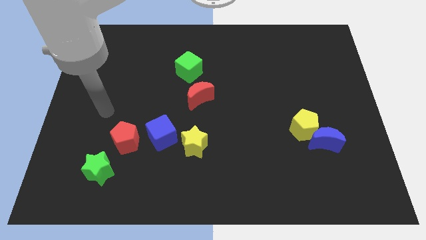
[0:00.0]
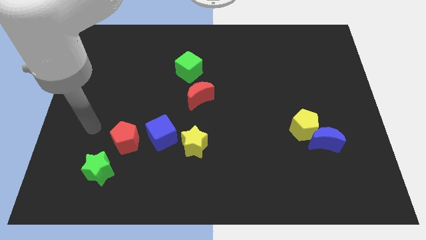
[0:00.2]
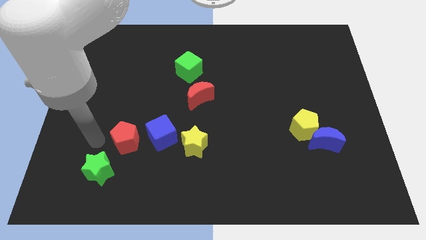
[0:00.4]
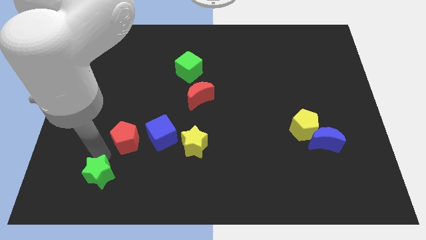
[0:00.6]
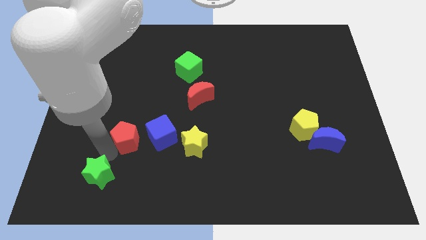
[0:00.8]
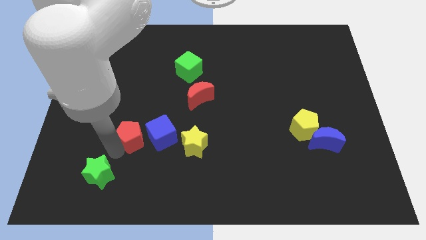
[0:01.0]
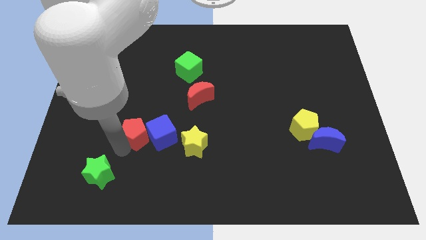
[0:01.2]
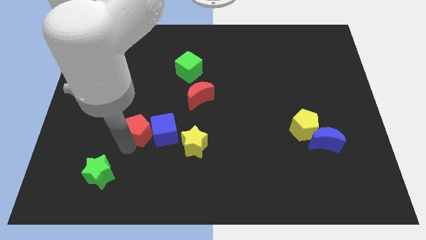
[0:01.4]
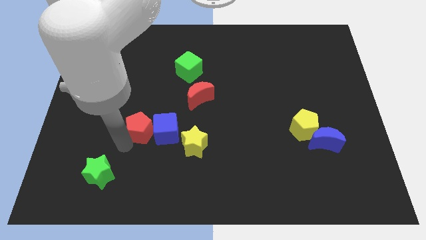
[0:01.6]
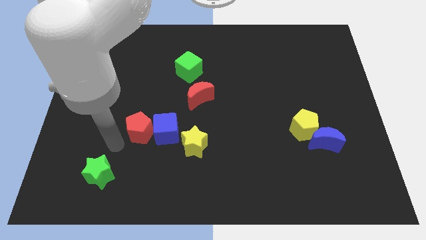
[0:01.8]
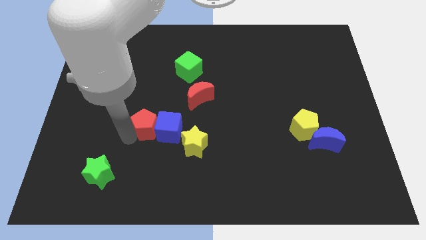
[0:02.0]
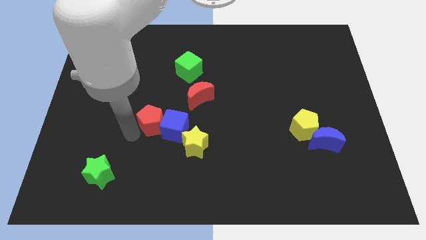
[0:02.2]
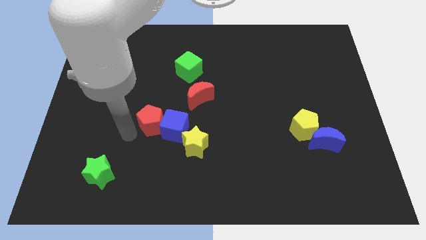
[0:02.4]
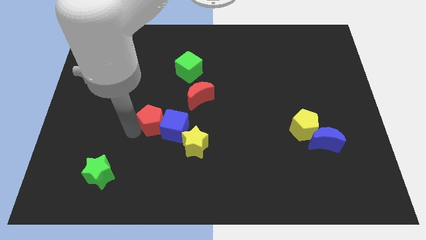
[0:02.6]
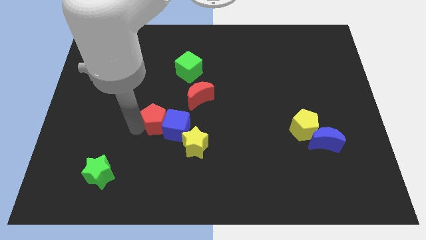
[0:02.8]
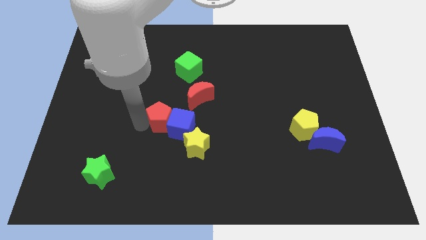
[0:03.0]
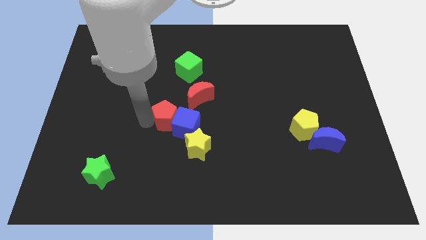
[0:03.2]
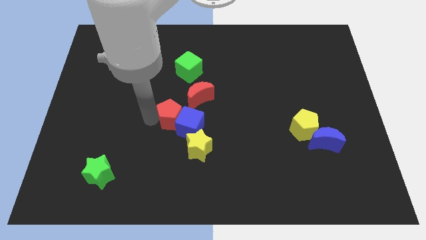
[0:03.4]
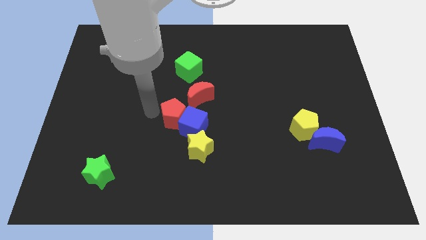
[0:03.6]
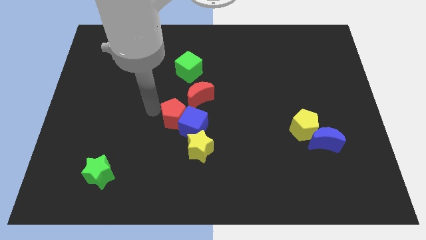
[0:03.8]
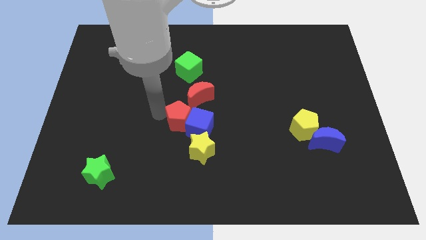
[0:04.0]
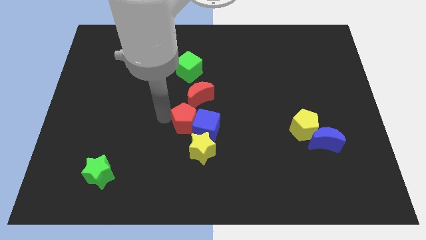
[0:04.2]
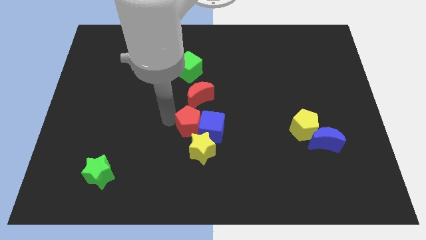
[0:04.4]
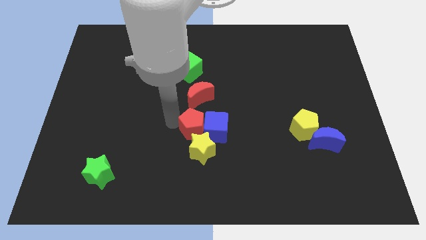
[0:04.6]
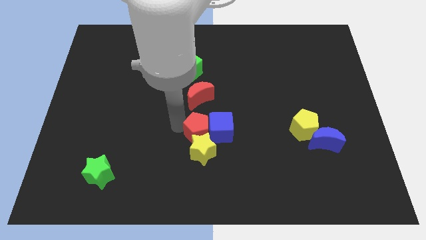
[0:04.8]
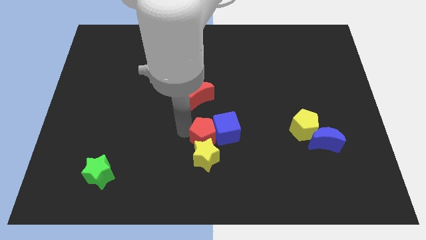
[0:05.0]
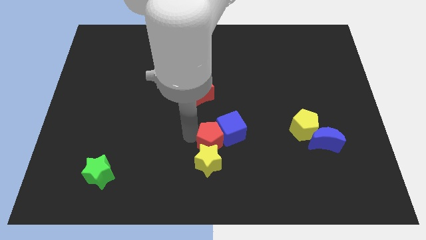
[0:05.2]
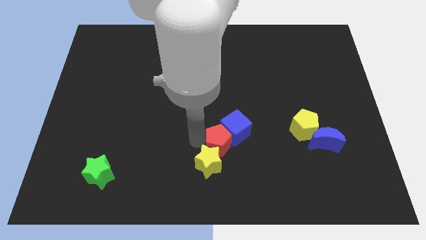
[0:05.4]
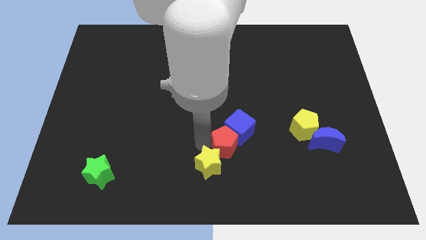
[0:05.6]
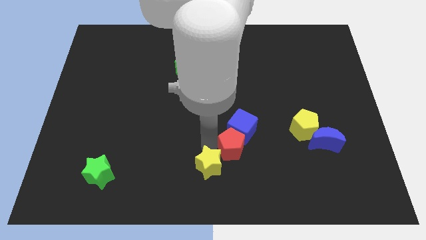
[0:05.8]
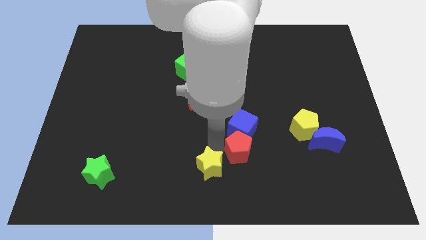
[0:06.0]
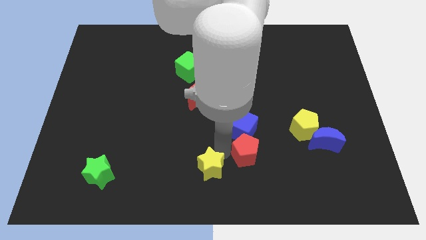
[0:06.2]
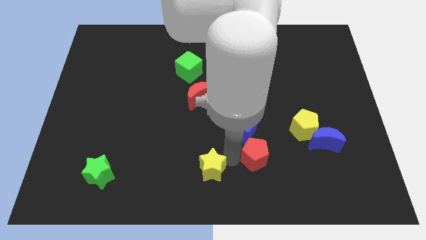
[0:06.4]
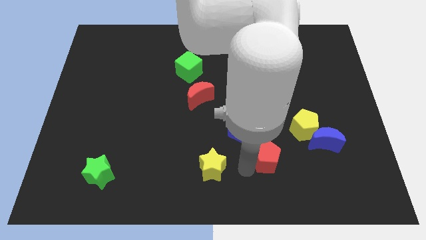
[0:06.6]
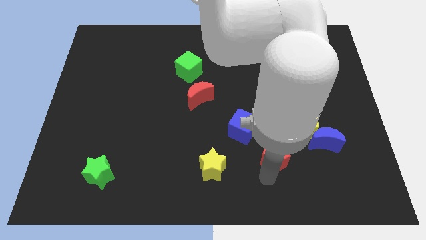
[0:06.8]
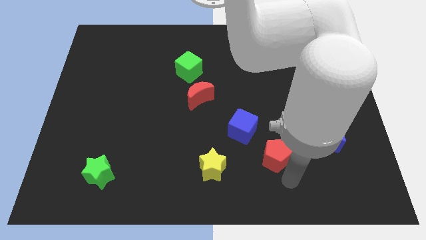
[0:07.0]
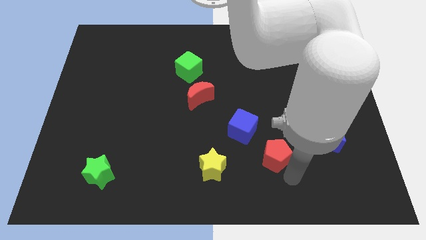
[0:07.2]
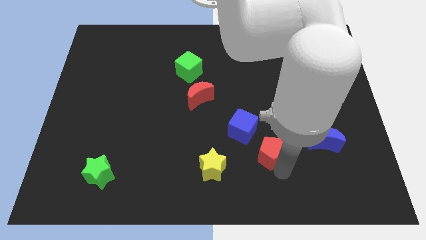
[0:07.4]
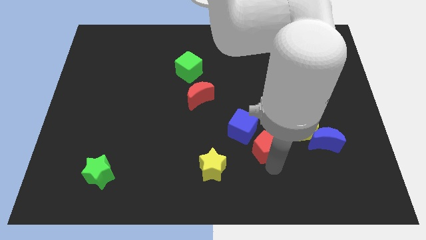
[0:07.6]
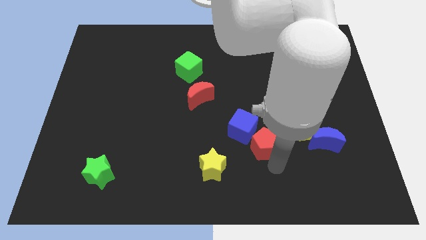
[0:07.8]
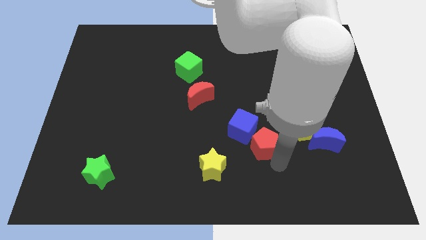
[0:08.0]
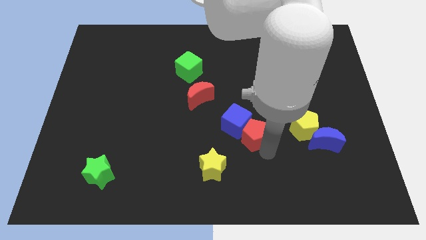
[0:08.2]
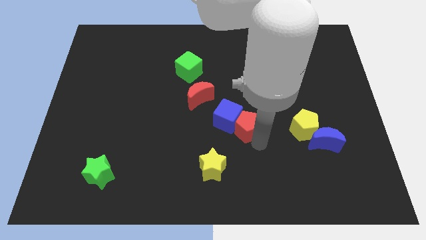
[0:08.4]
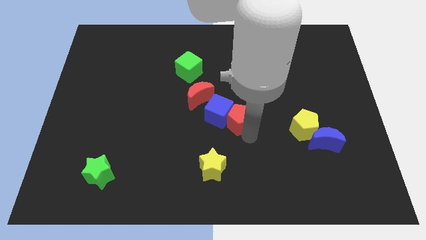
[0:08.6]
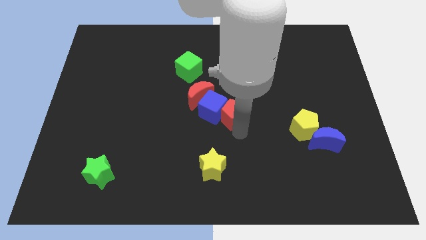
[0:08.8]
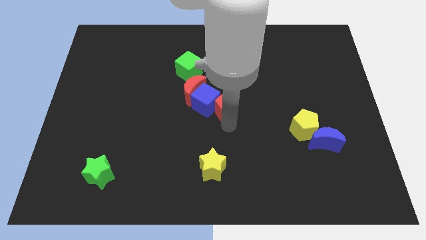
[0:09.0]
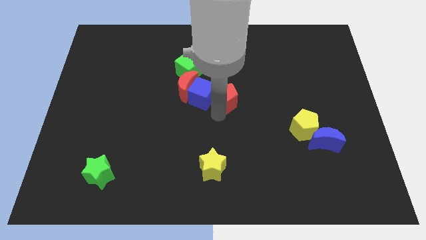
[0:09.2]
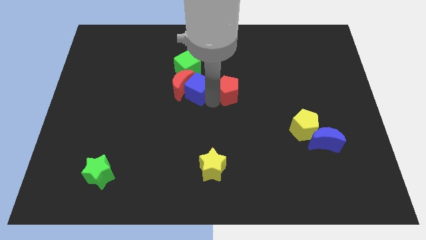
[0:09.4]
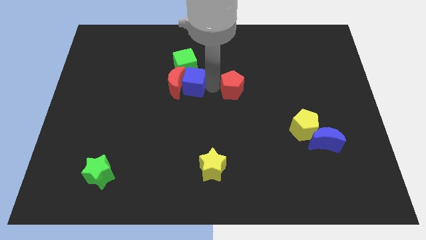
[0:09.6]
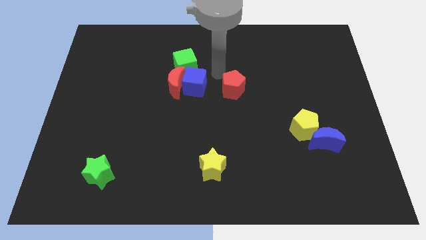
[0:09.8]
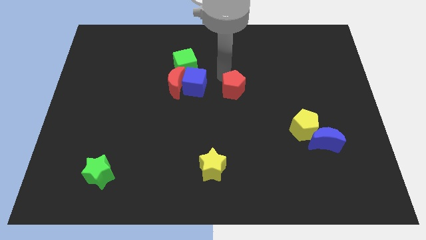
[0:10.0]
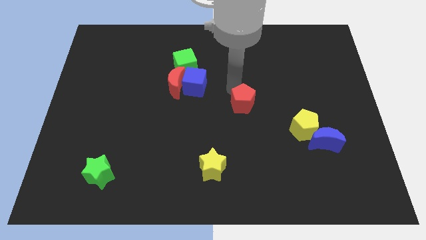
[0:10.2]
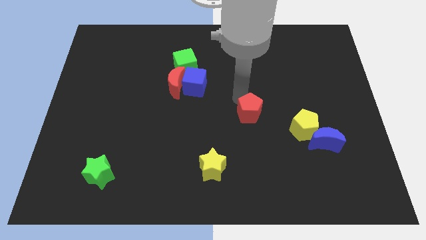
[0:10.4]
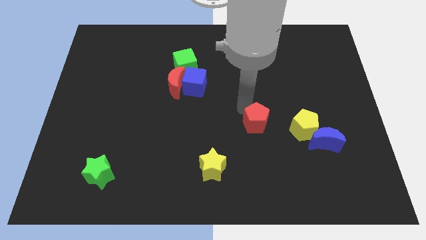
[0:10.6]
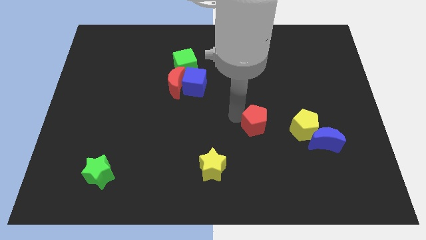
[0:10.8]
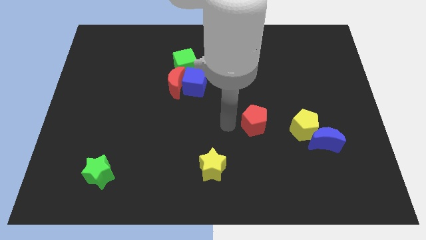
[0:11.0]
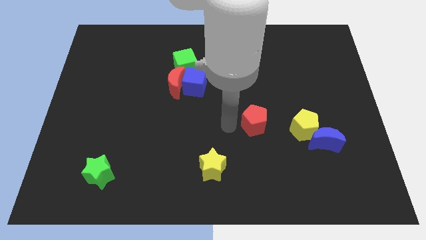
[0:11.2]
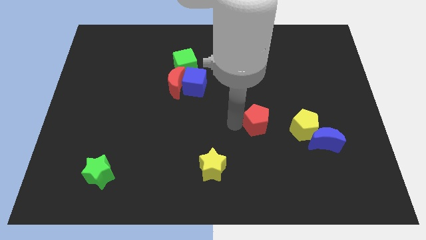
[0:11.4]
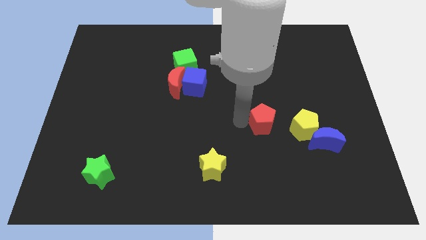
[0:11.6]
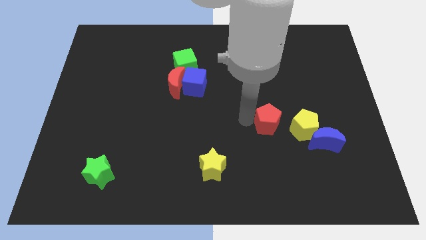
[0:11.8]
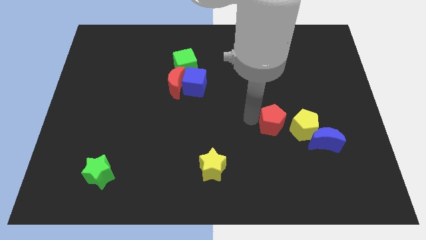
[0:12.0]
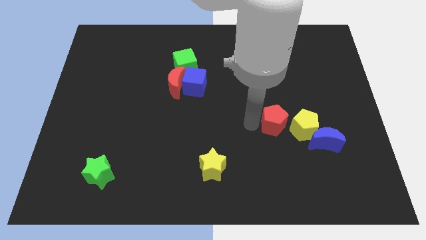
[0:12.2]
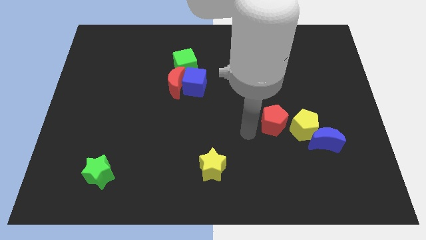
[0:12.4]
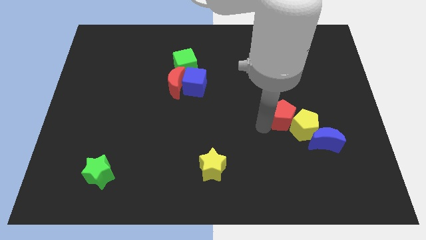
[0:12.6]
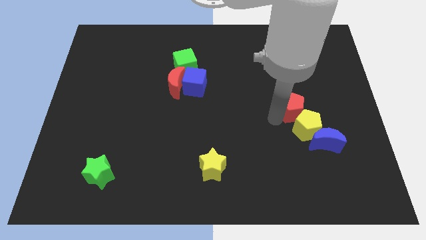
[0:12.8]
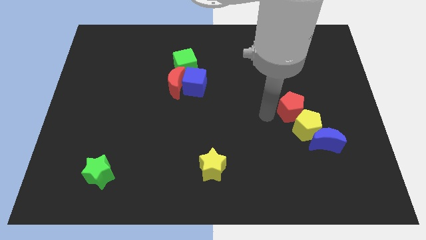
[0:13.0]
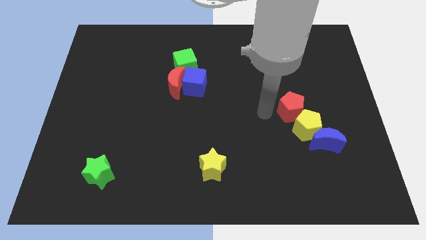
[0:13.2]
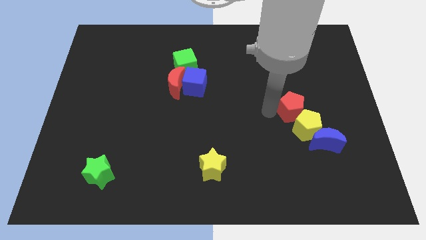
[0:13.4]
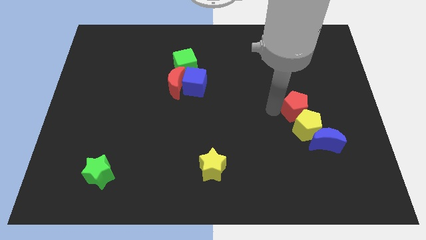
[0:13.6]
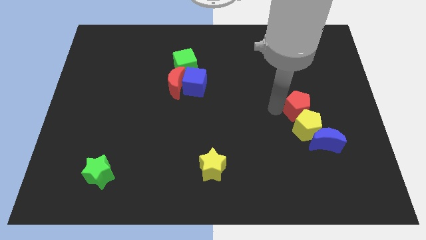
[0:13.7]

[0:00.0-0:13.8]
push the red pentagon to the top right of the yellow pentagon
